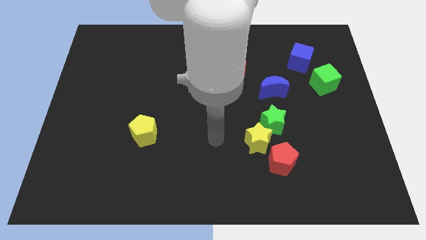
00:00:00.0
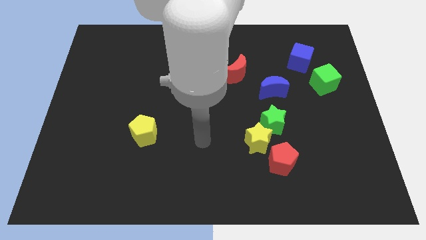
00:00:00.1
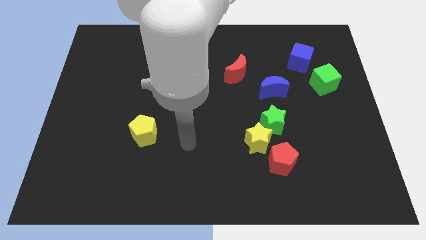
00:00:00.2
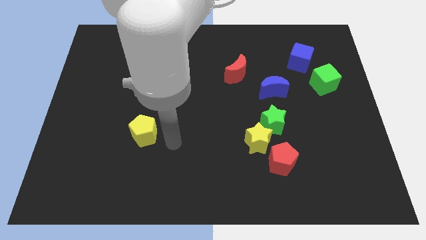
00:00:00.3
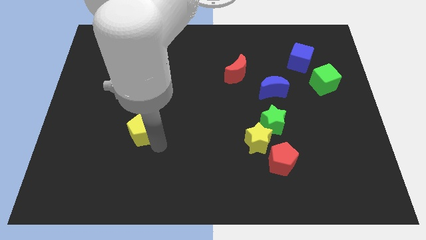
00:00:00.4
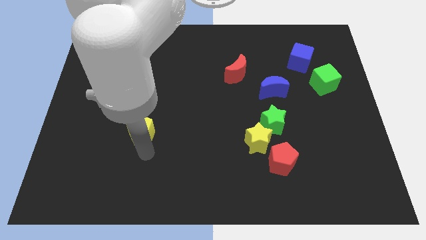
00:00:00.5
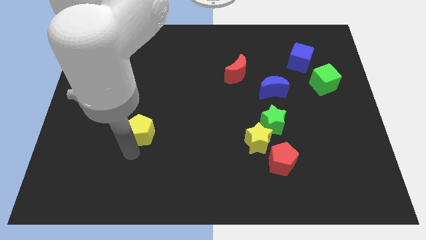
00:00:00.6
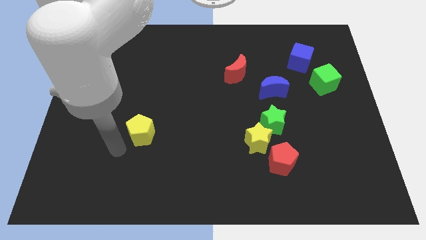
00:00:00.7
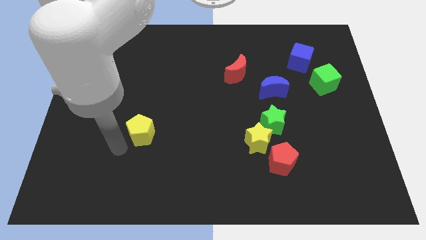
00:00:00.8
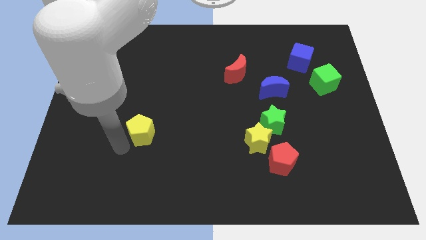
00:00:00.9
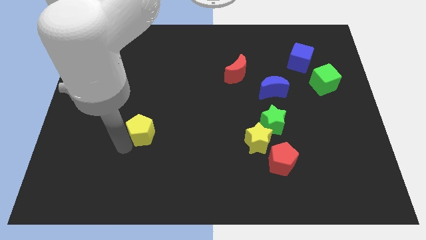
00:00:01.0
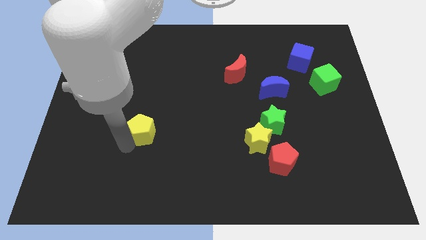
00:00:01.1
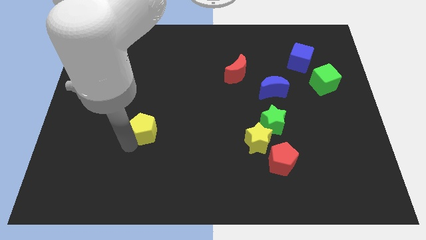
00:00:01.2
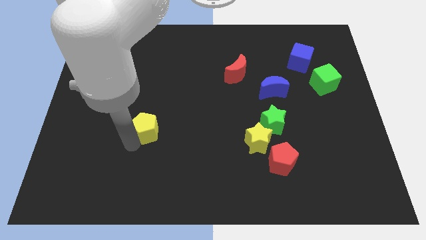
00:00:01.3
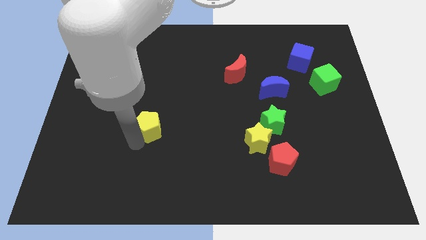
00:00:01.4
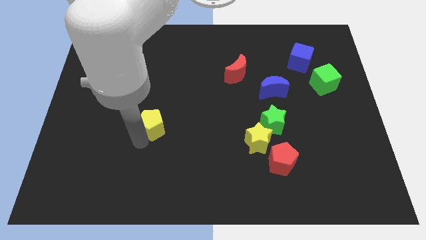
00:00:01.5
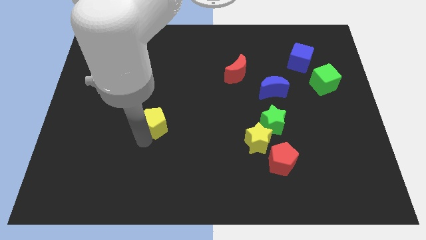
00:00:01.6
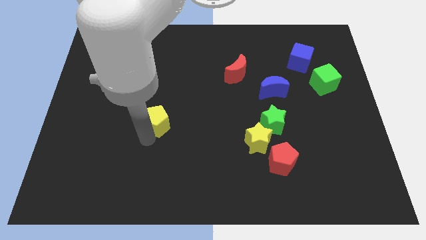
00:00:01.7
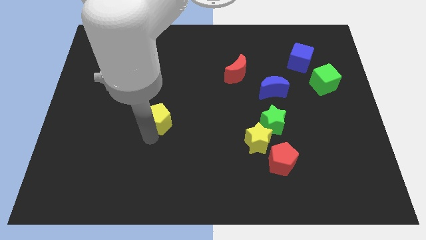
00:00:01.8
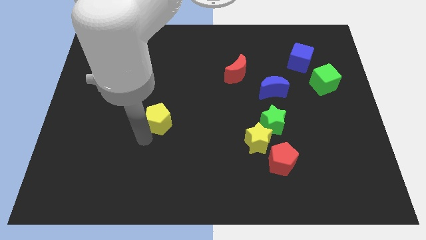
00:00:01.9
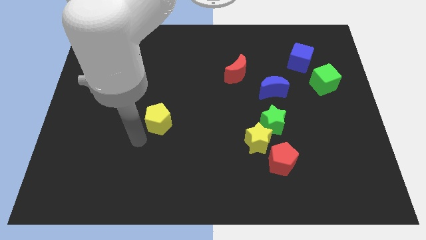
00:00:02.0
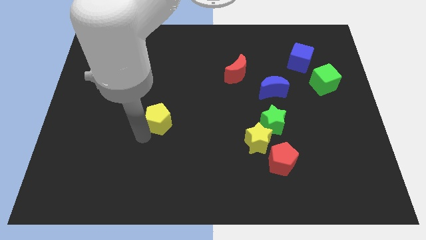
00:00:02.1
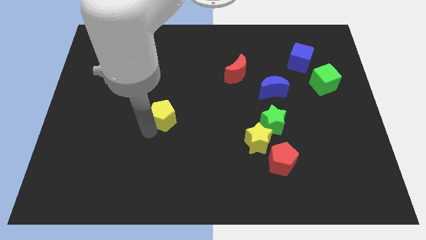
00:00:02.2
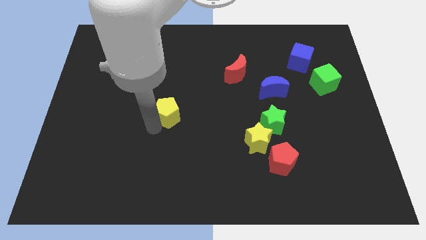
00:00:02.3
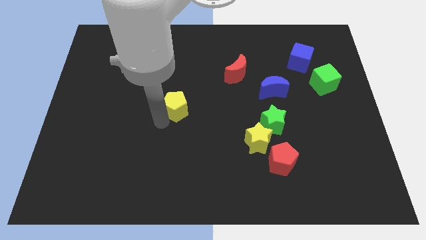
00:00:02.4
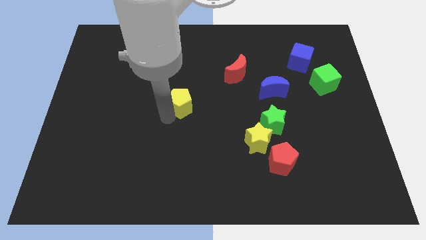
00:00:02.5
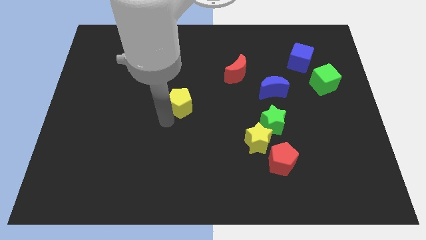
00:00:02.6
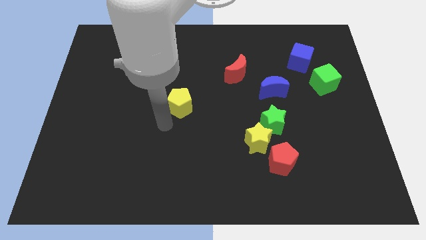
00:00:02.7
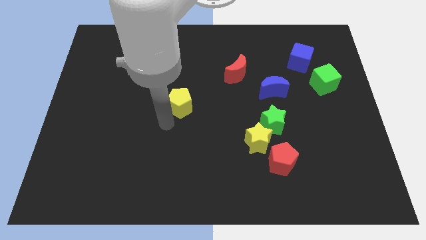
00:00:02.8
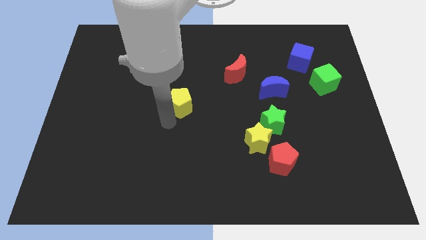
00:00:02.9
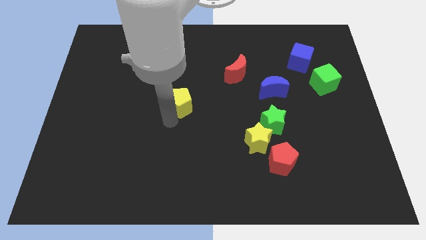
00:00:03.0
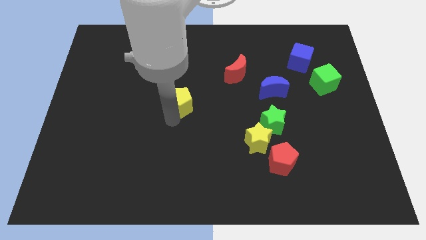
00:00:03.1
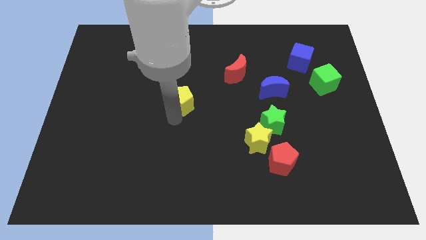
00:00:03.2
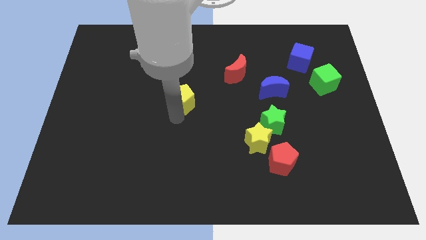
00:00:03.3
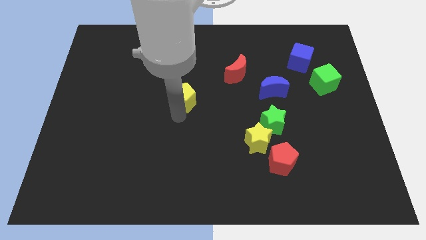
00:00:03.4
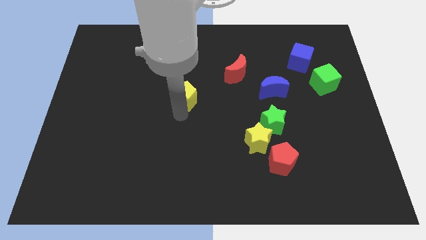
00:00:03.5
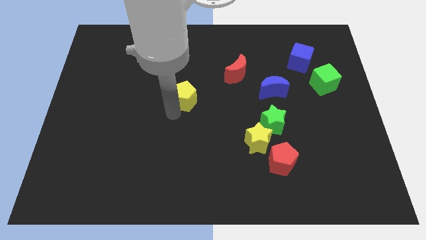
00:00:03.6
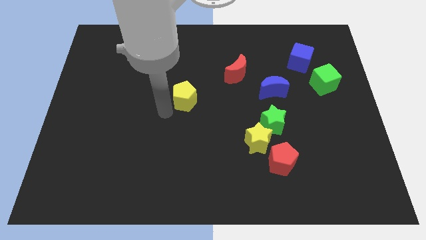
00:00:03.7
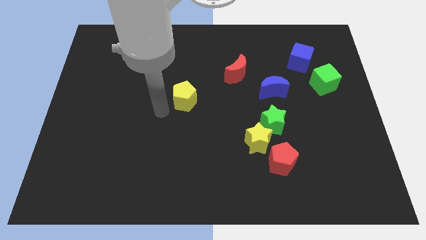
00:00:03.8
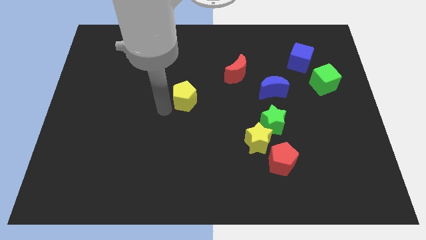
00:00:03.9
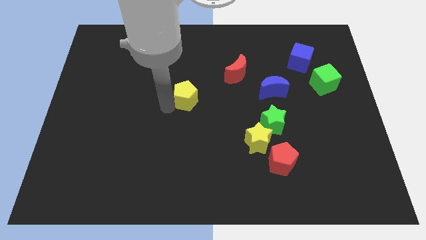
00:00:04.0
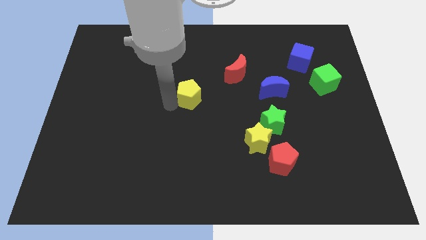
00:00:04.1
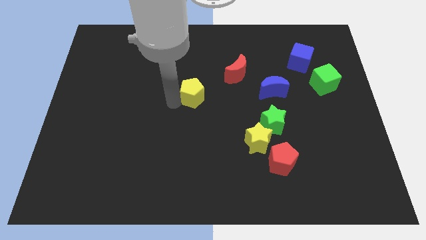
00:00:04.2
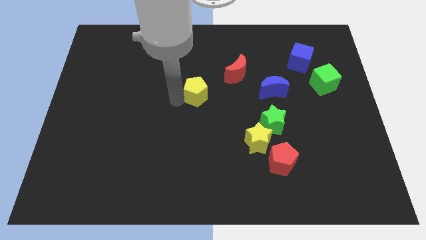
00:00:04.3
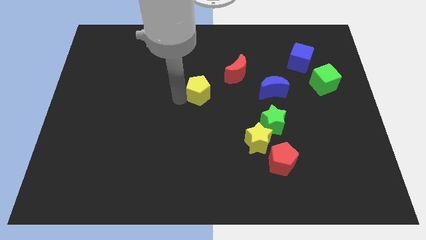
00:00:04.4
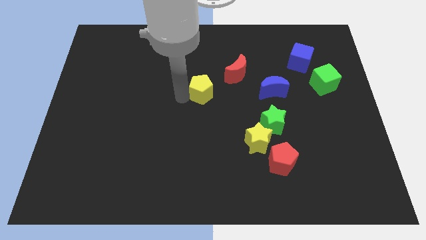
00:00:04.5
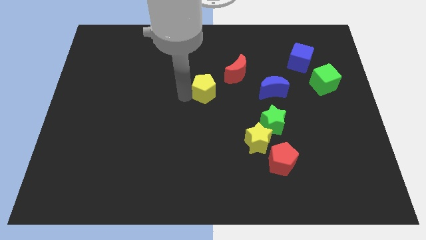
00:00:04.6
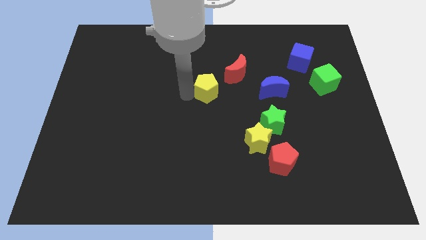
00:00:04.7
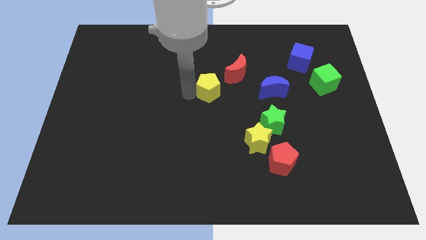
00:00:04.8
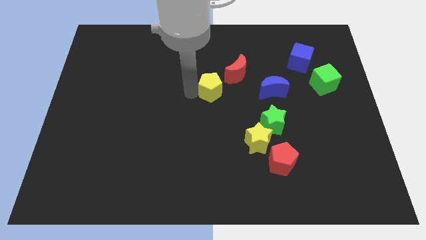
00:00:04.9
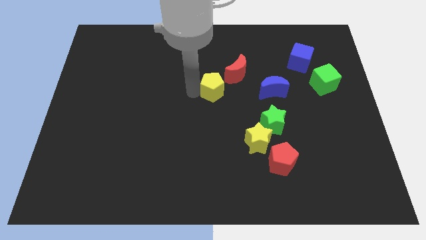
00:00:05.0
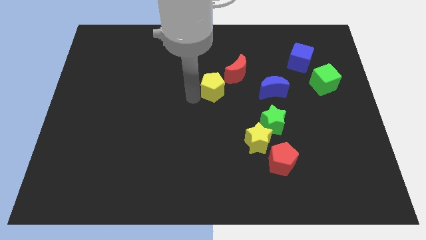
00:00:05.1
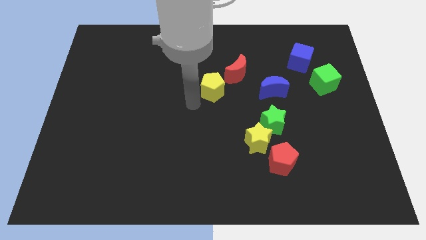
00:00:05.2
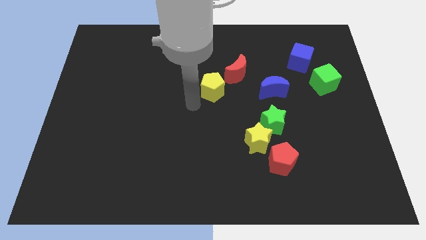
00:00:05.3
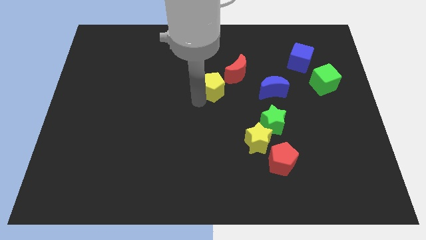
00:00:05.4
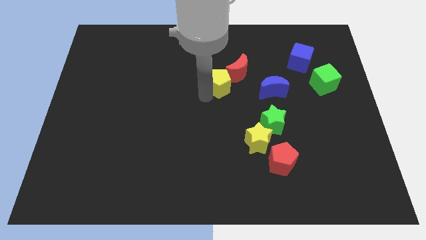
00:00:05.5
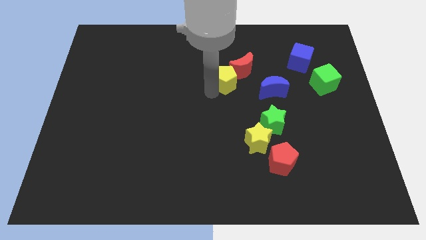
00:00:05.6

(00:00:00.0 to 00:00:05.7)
put the yellow pentagon towards the red moon

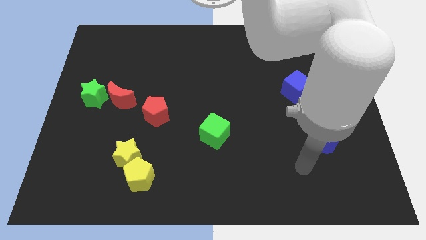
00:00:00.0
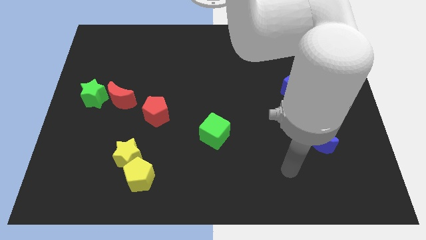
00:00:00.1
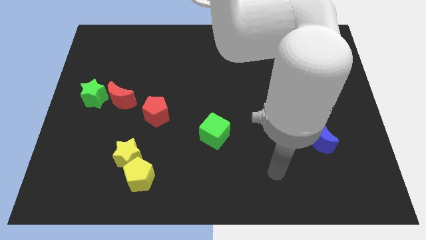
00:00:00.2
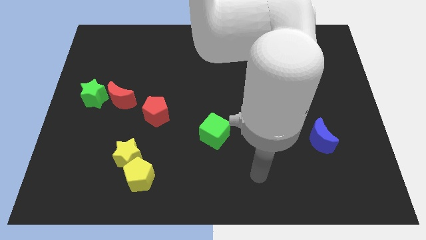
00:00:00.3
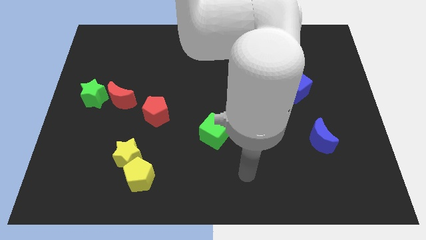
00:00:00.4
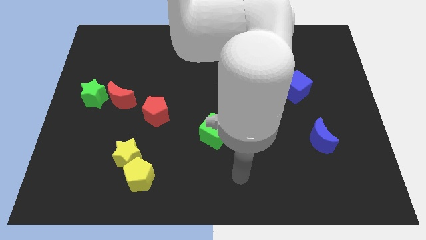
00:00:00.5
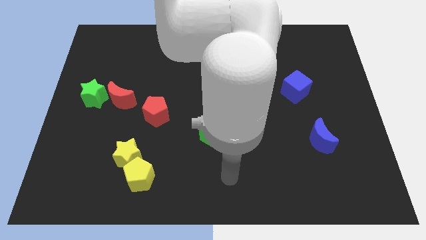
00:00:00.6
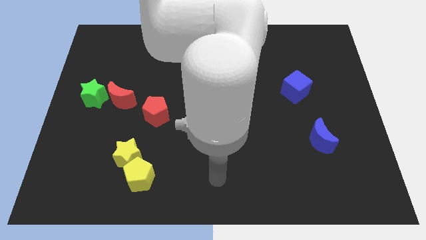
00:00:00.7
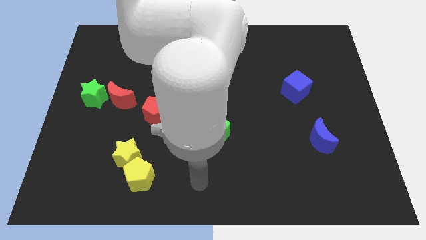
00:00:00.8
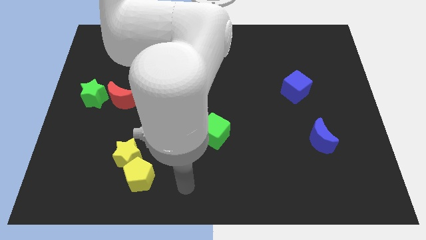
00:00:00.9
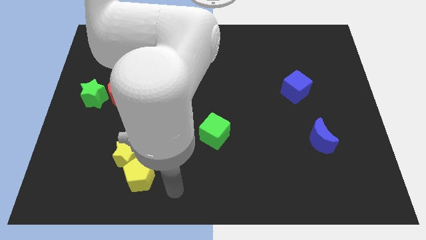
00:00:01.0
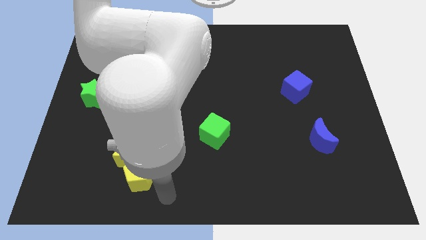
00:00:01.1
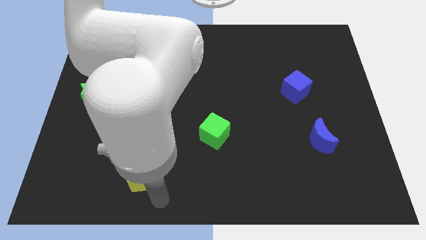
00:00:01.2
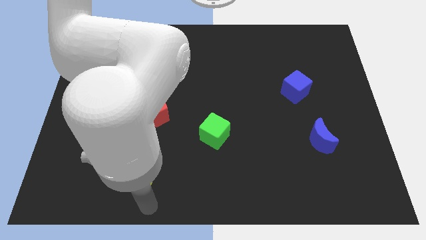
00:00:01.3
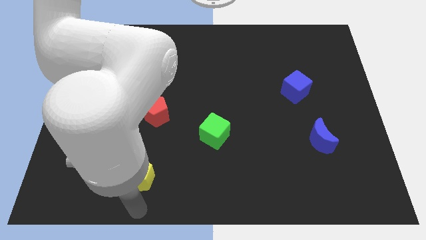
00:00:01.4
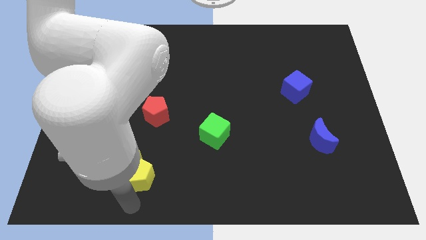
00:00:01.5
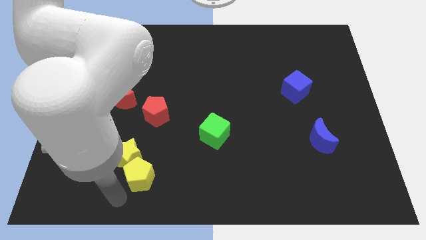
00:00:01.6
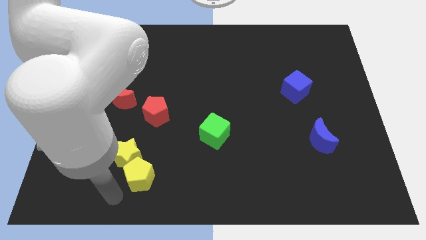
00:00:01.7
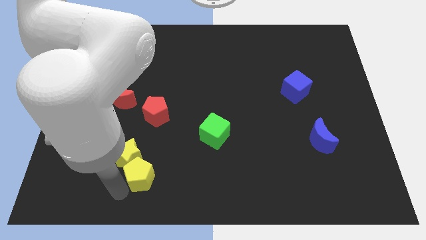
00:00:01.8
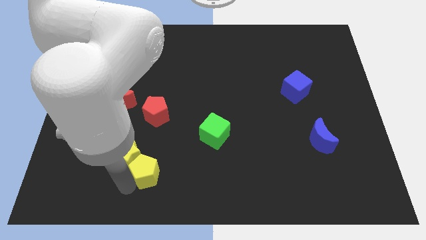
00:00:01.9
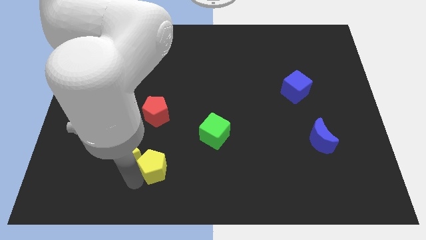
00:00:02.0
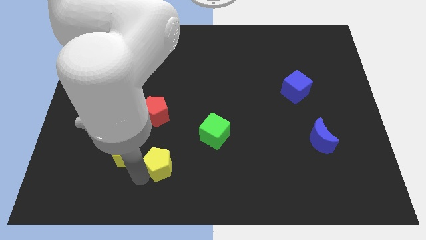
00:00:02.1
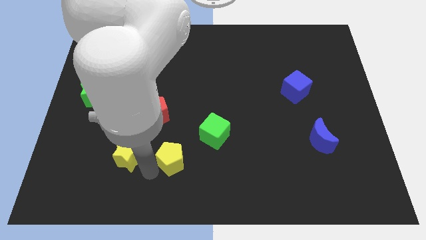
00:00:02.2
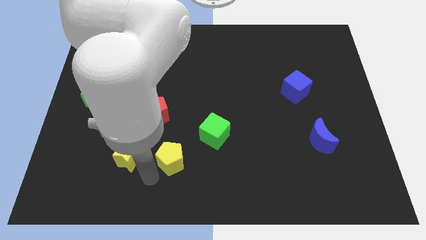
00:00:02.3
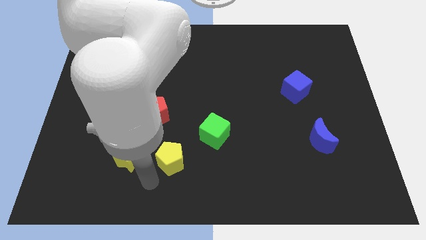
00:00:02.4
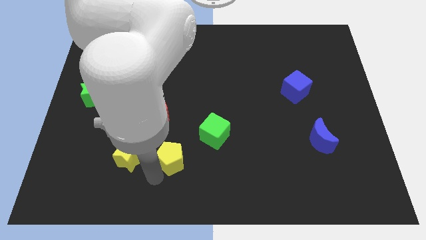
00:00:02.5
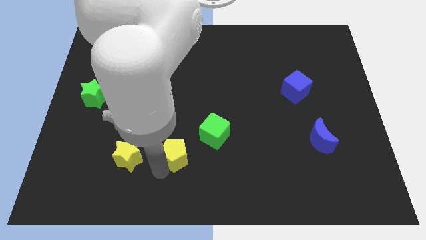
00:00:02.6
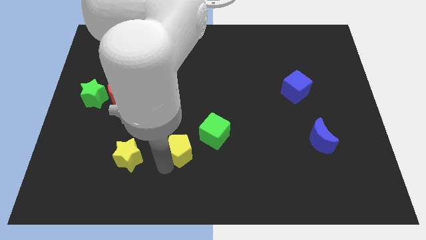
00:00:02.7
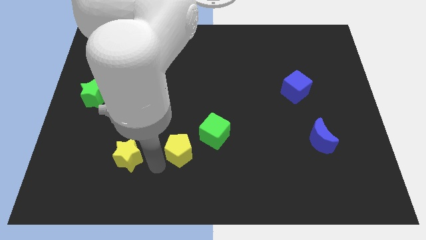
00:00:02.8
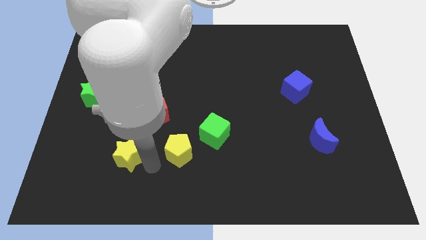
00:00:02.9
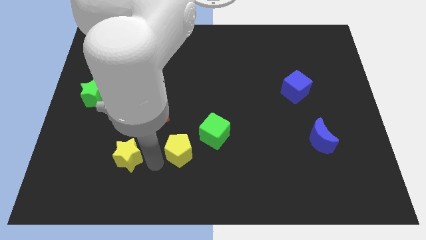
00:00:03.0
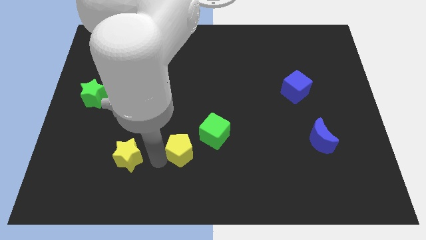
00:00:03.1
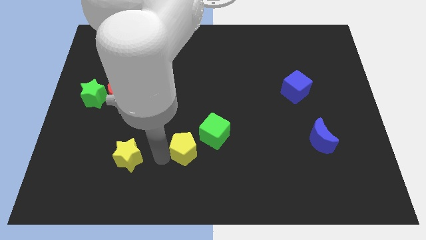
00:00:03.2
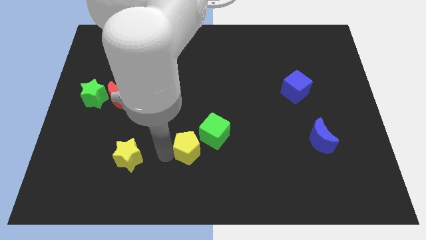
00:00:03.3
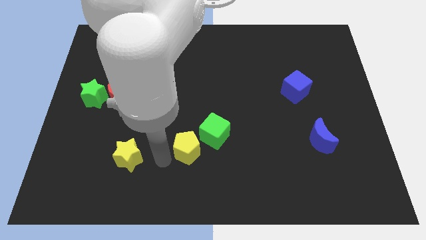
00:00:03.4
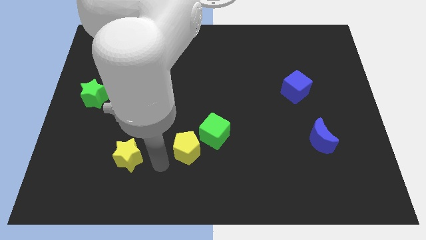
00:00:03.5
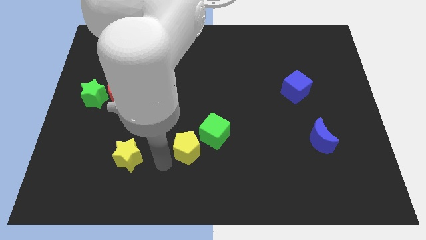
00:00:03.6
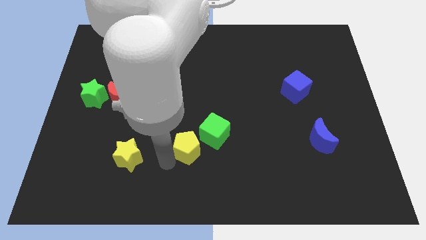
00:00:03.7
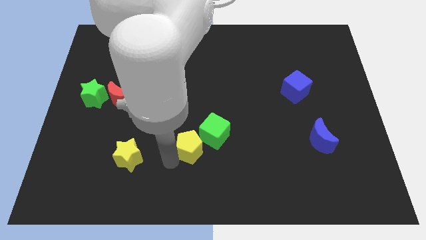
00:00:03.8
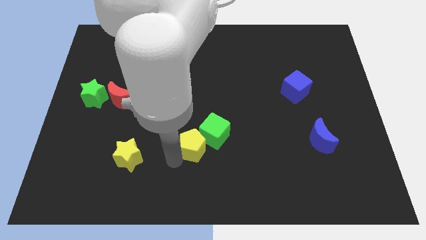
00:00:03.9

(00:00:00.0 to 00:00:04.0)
slide the yellow pentagon towards the green cube
